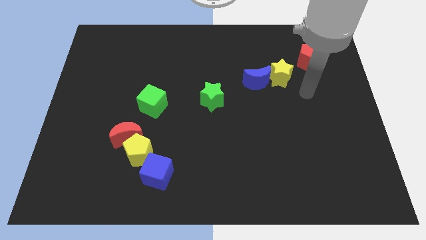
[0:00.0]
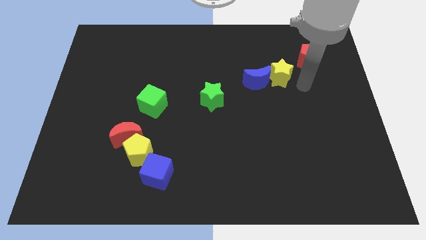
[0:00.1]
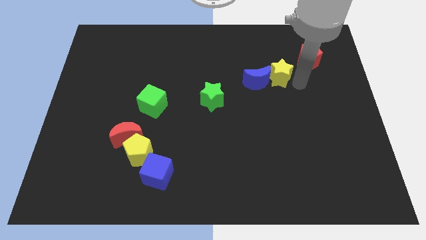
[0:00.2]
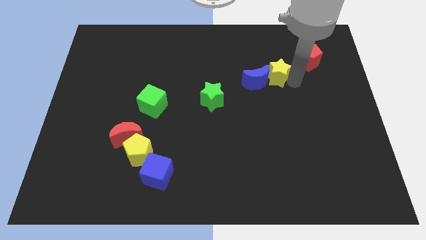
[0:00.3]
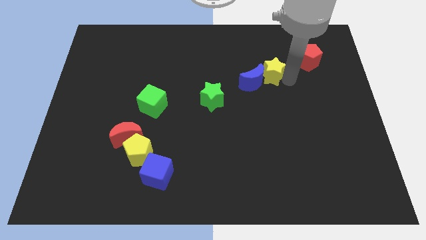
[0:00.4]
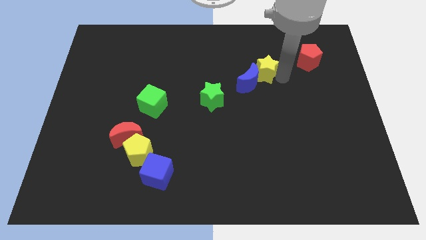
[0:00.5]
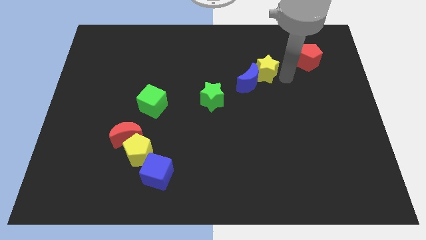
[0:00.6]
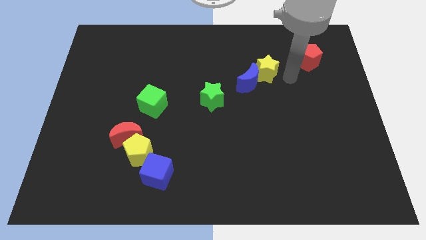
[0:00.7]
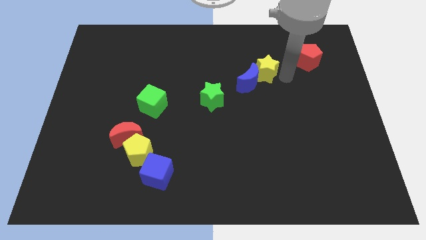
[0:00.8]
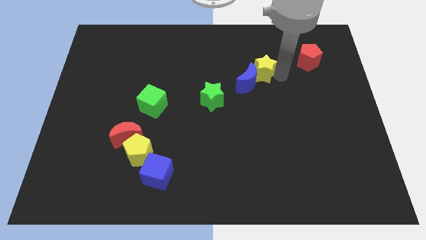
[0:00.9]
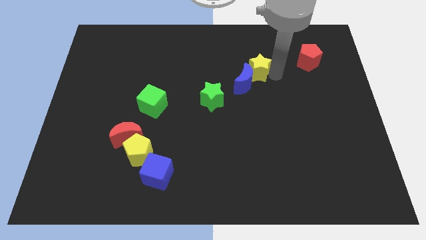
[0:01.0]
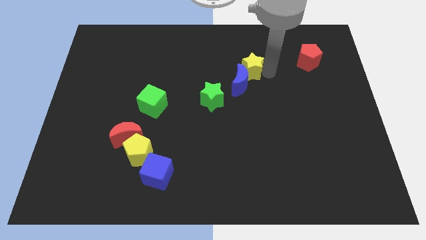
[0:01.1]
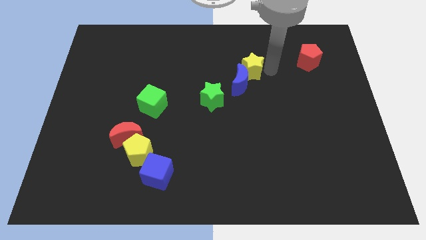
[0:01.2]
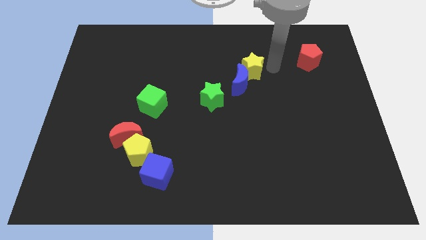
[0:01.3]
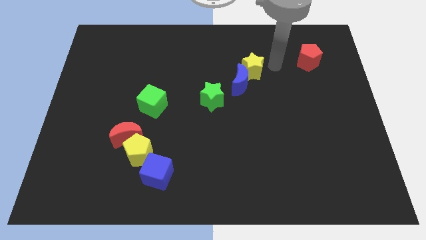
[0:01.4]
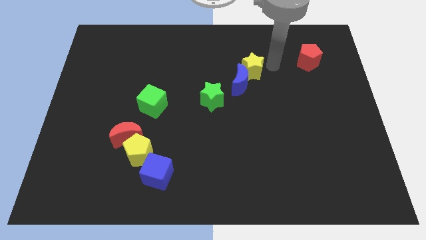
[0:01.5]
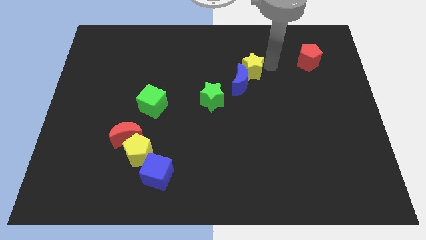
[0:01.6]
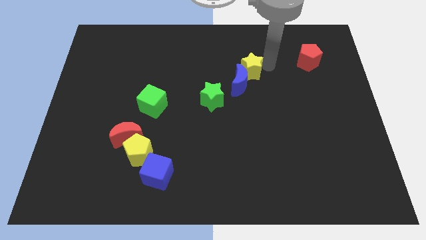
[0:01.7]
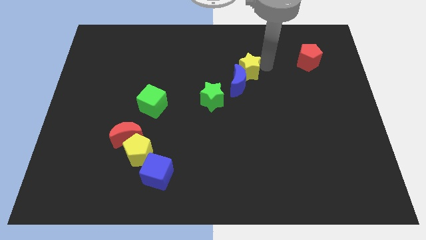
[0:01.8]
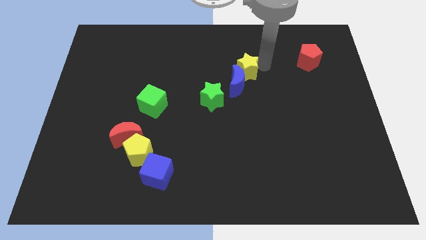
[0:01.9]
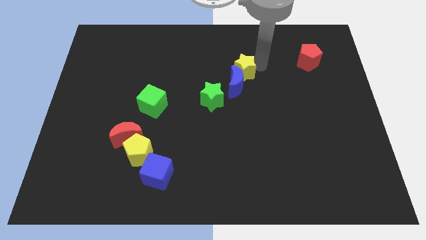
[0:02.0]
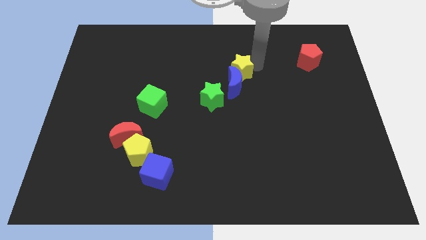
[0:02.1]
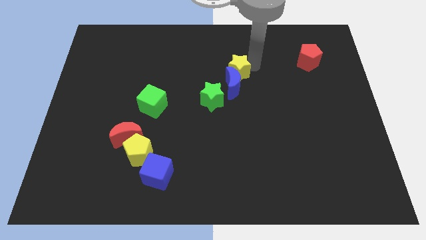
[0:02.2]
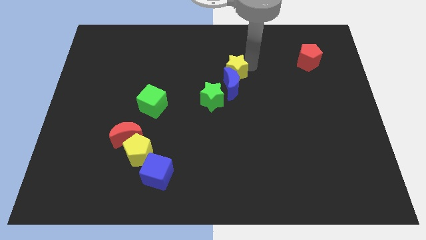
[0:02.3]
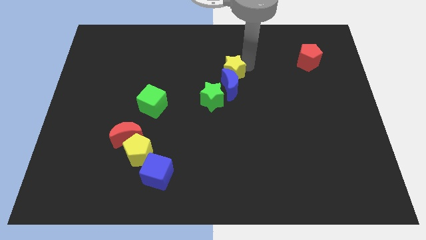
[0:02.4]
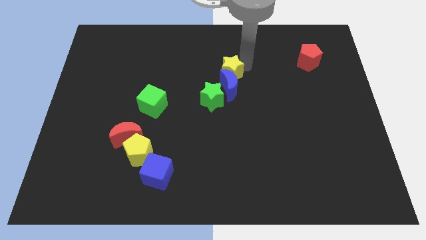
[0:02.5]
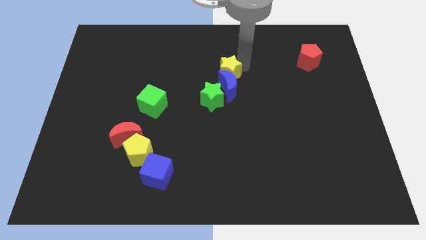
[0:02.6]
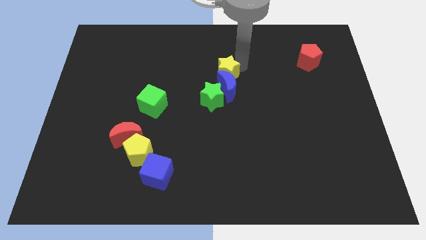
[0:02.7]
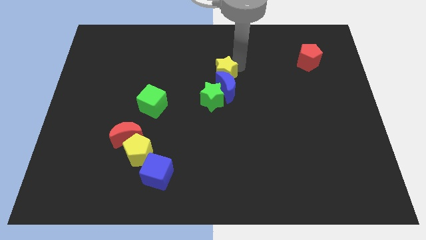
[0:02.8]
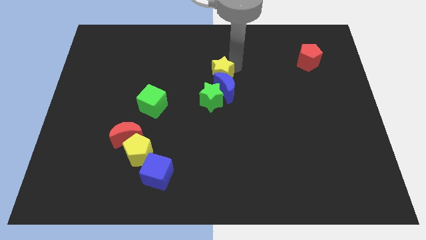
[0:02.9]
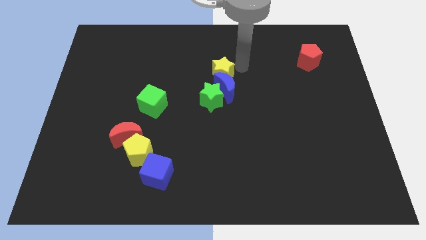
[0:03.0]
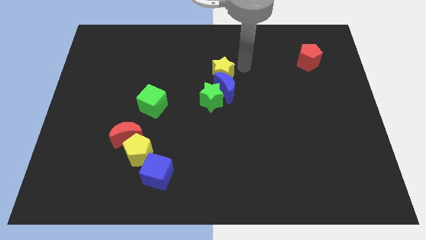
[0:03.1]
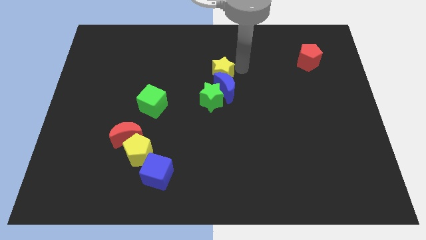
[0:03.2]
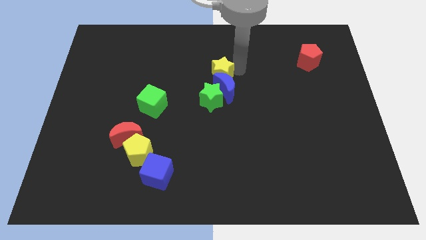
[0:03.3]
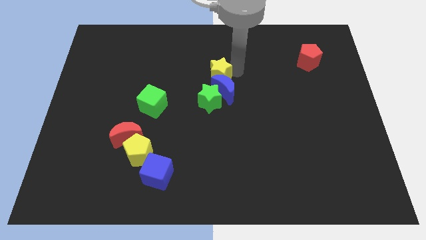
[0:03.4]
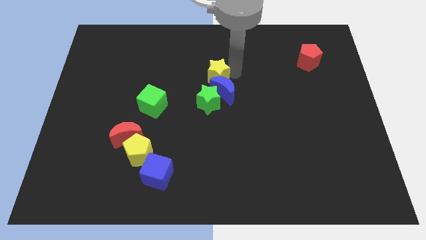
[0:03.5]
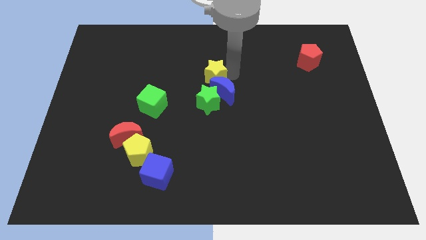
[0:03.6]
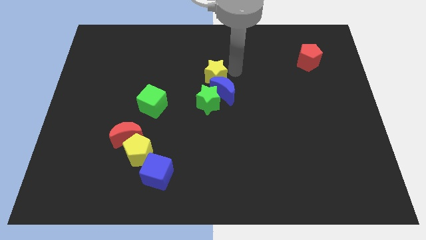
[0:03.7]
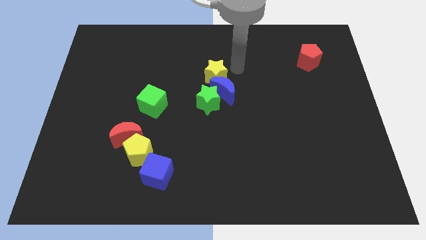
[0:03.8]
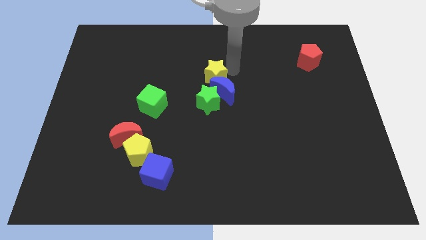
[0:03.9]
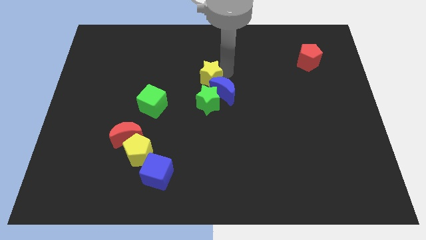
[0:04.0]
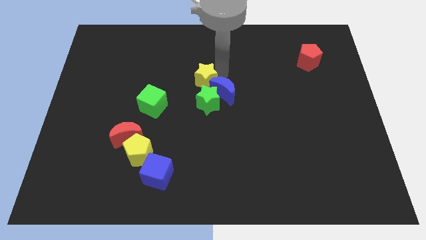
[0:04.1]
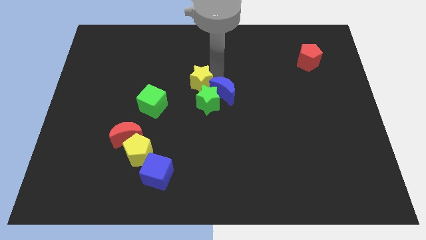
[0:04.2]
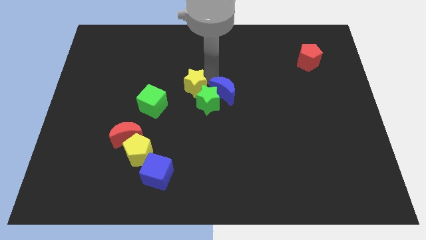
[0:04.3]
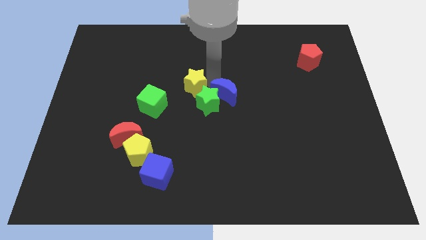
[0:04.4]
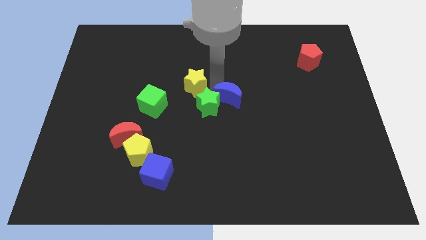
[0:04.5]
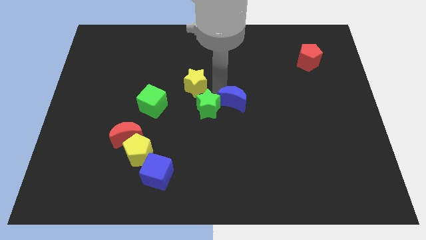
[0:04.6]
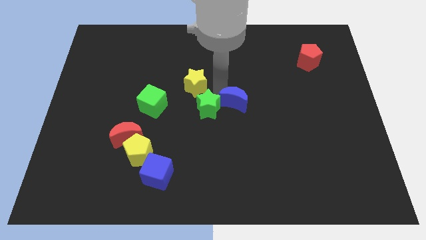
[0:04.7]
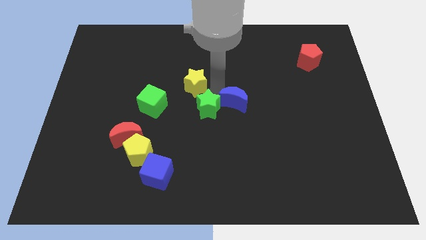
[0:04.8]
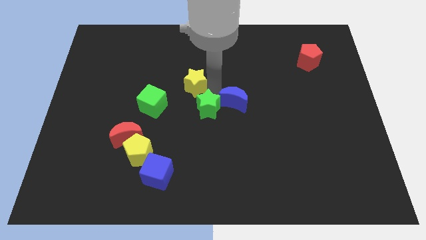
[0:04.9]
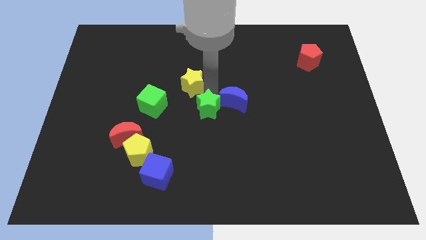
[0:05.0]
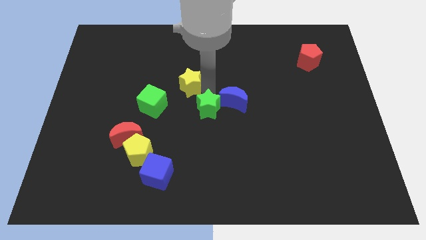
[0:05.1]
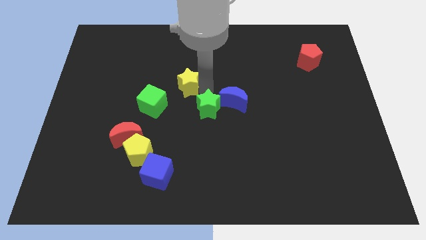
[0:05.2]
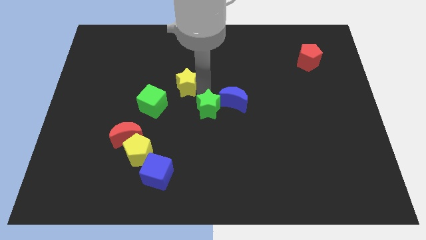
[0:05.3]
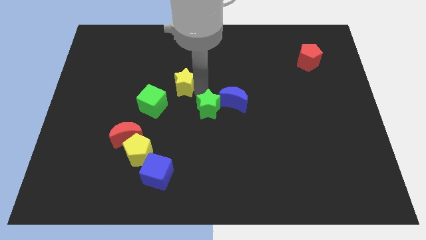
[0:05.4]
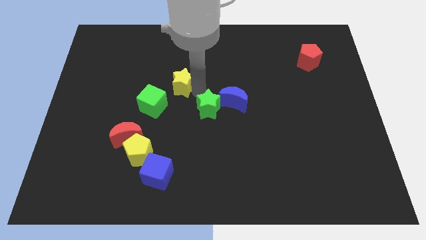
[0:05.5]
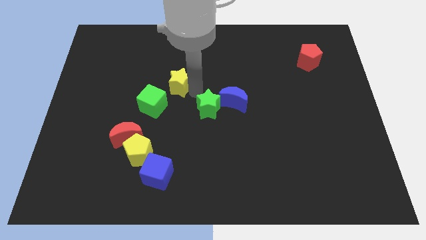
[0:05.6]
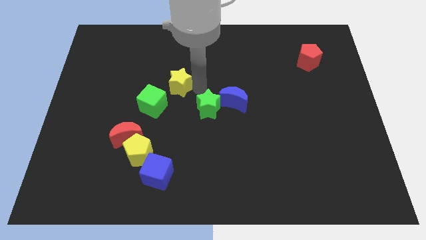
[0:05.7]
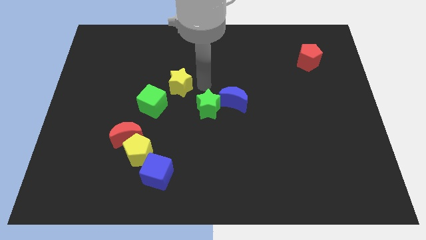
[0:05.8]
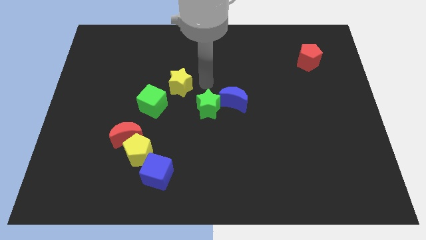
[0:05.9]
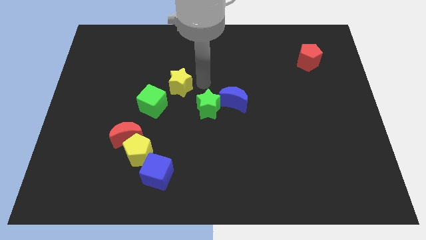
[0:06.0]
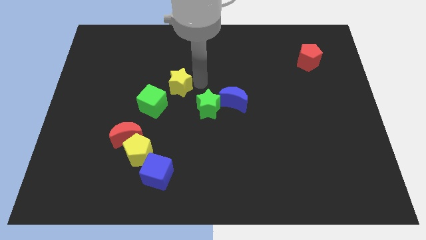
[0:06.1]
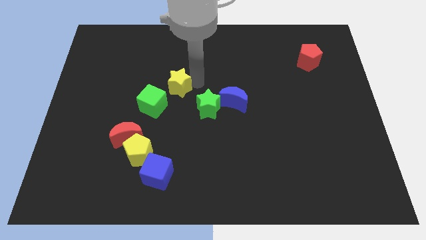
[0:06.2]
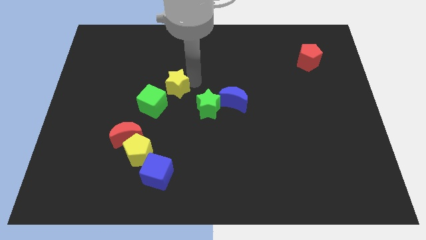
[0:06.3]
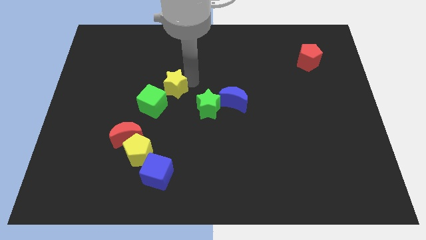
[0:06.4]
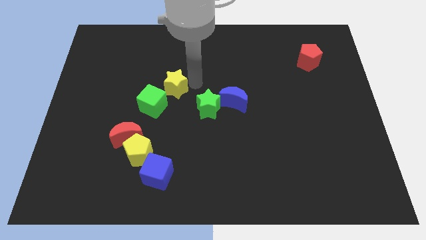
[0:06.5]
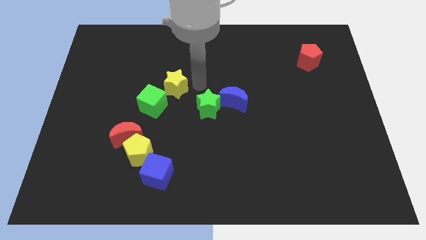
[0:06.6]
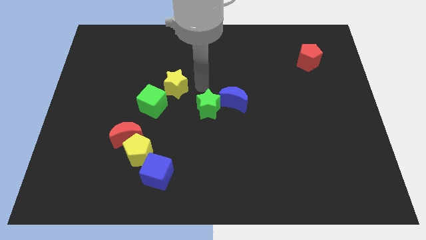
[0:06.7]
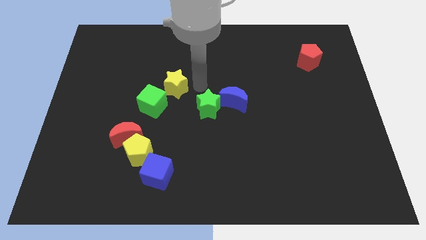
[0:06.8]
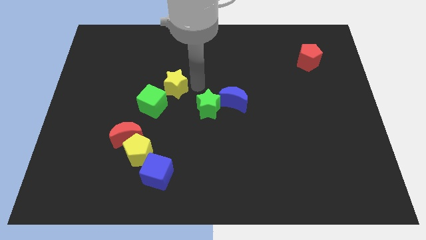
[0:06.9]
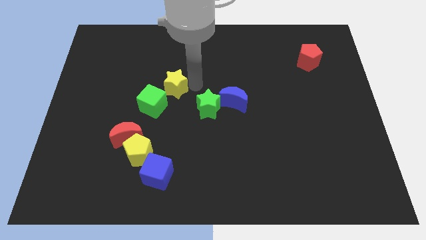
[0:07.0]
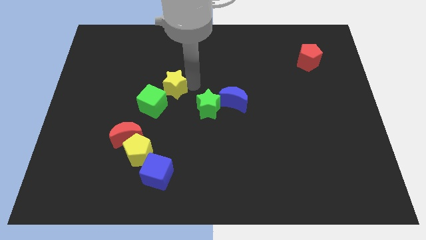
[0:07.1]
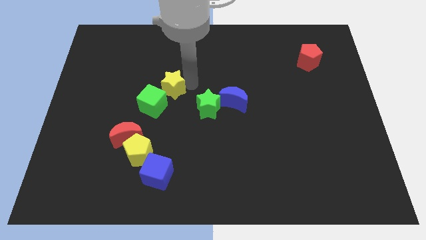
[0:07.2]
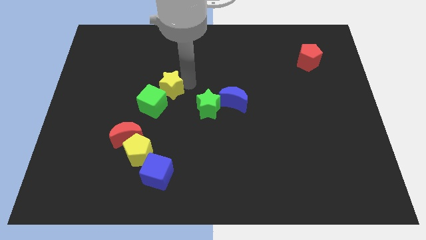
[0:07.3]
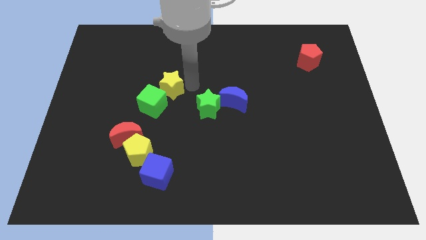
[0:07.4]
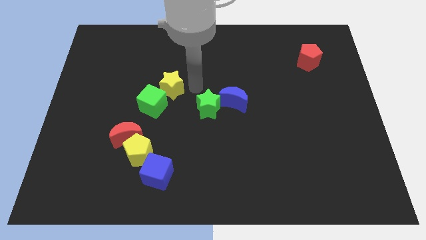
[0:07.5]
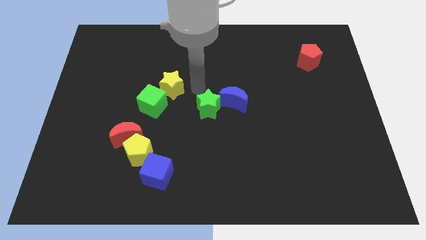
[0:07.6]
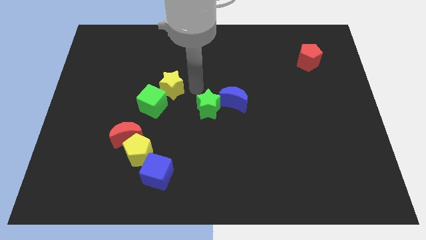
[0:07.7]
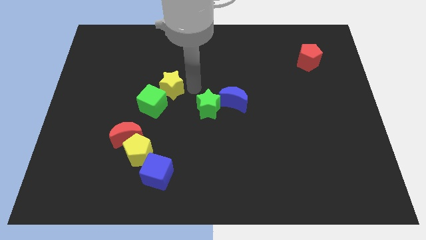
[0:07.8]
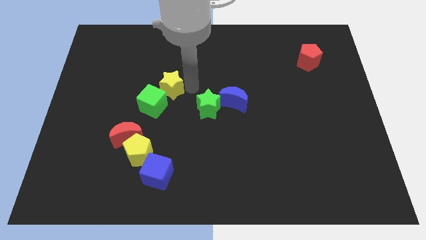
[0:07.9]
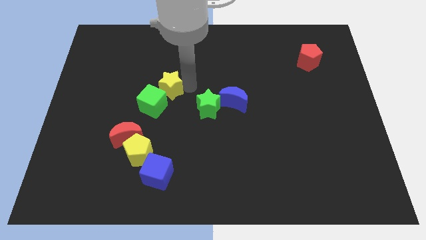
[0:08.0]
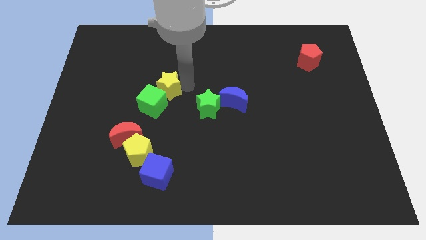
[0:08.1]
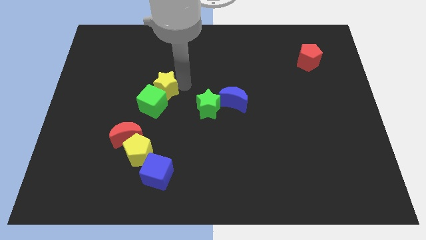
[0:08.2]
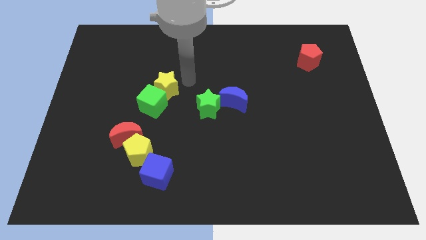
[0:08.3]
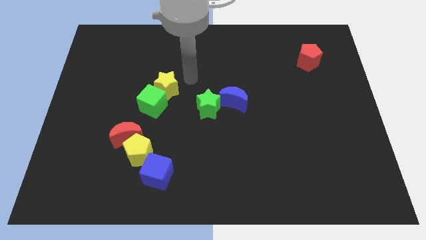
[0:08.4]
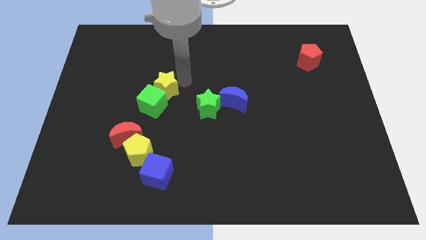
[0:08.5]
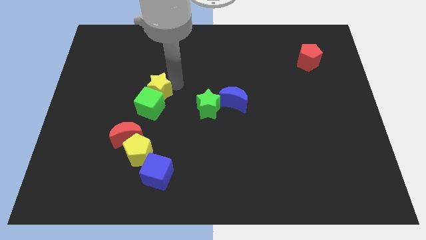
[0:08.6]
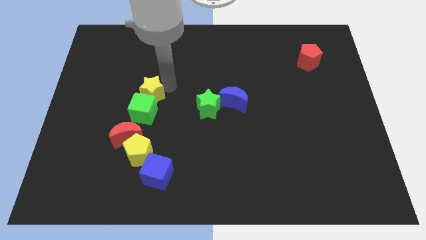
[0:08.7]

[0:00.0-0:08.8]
slide the yellow star to the top of the red moon
